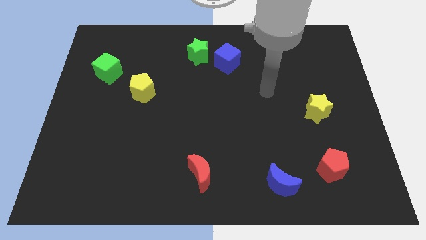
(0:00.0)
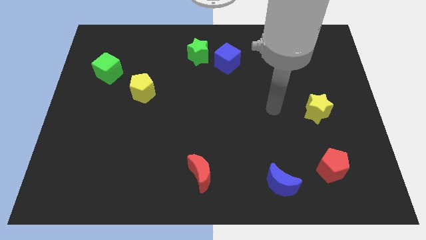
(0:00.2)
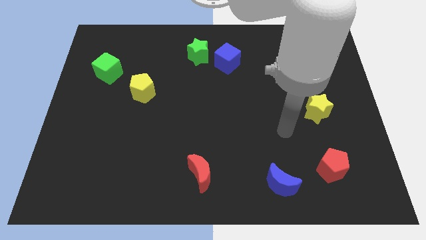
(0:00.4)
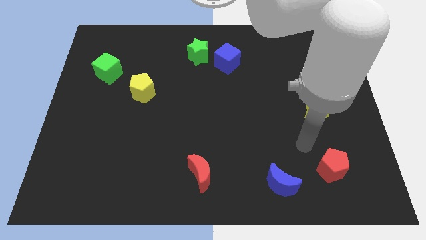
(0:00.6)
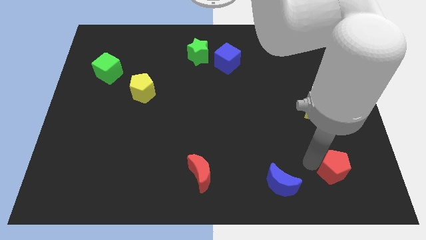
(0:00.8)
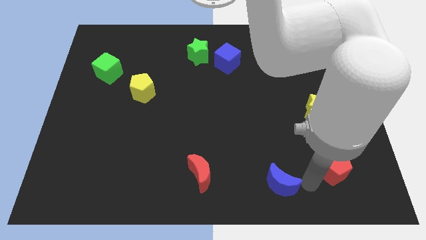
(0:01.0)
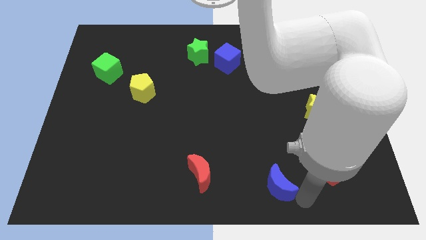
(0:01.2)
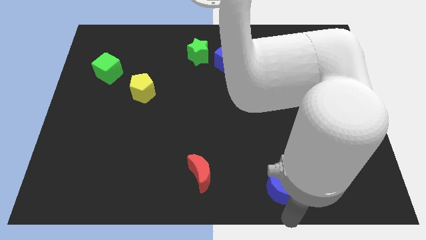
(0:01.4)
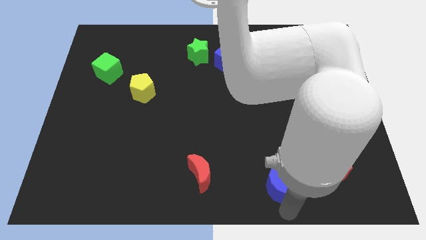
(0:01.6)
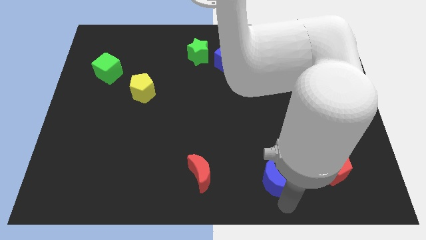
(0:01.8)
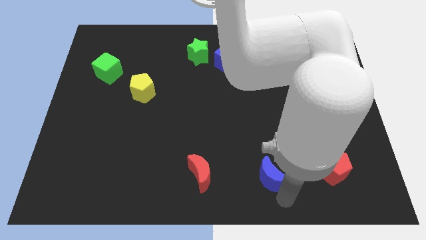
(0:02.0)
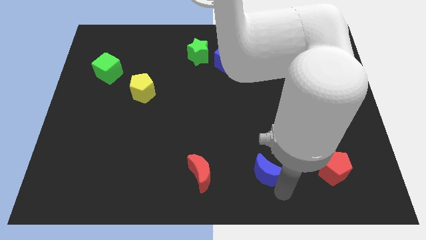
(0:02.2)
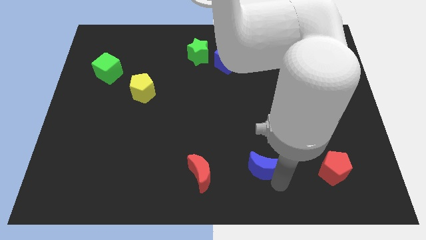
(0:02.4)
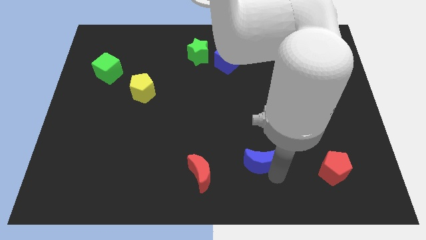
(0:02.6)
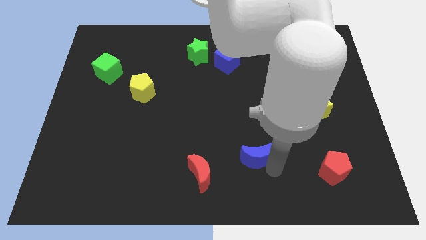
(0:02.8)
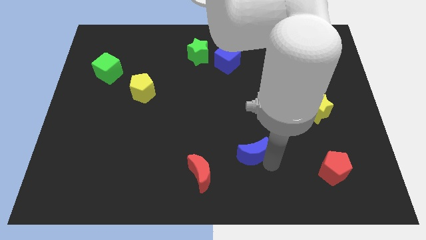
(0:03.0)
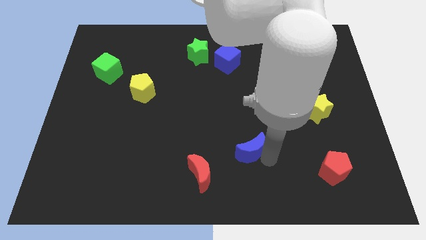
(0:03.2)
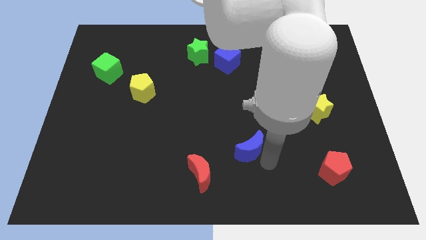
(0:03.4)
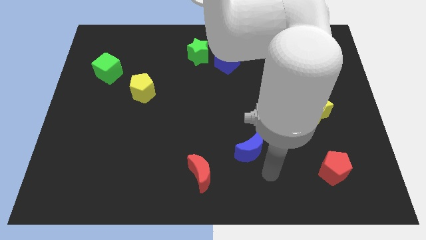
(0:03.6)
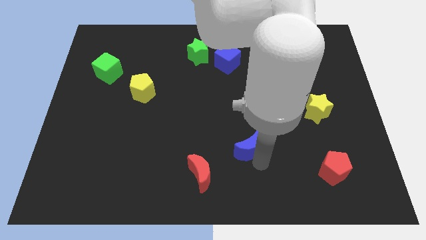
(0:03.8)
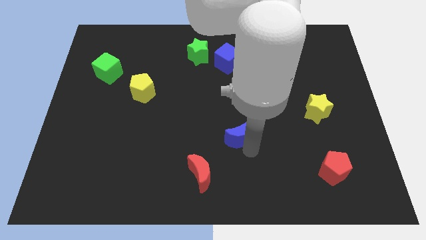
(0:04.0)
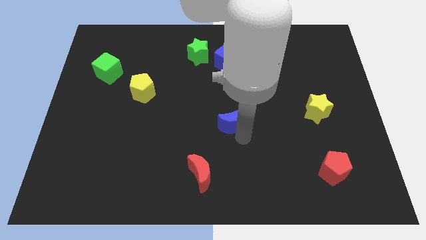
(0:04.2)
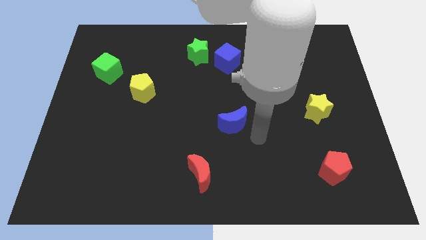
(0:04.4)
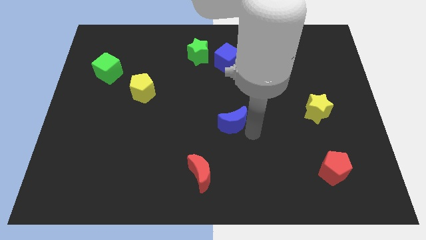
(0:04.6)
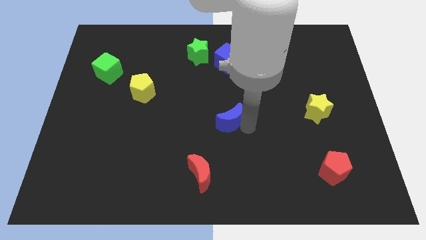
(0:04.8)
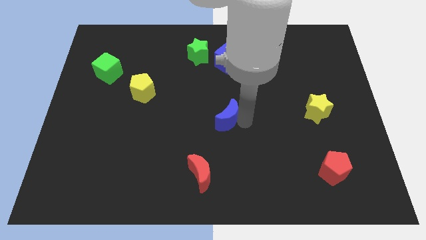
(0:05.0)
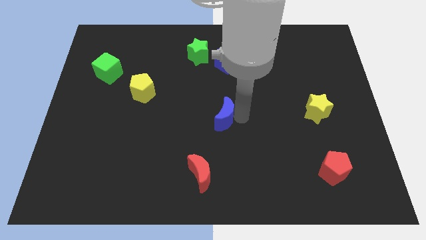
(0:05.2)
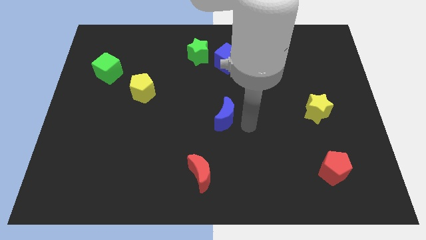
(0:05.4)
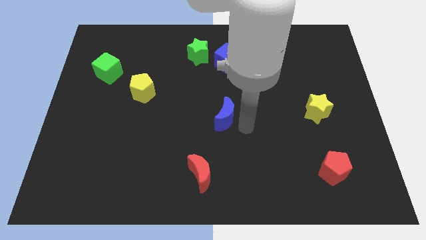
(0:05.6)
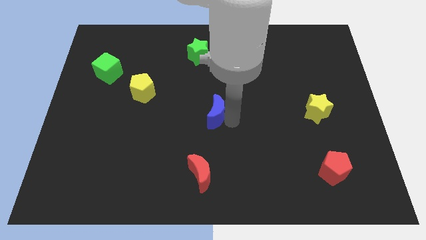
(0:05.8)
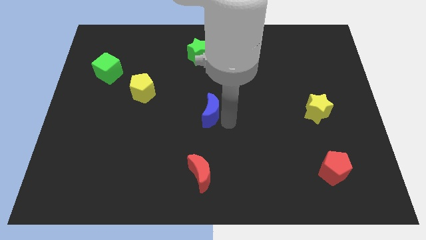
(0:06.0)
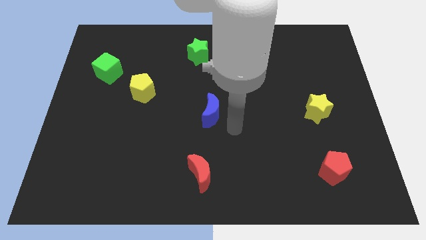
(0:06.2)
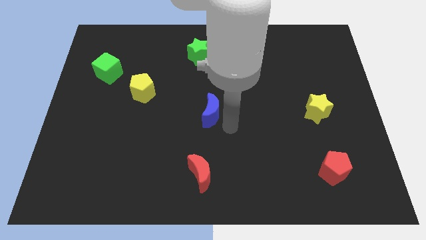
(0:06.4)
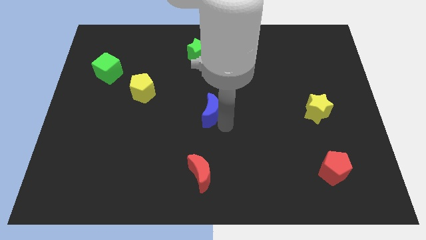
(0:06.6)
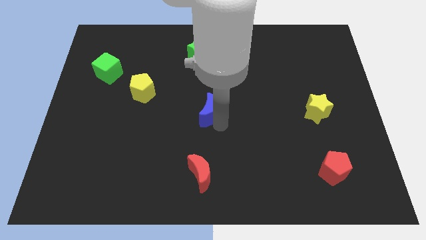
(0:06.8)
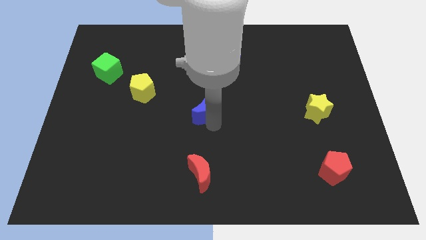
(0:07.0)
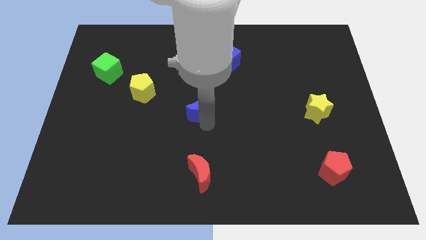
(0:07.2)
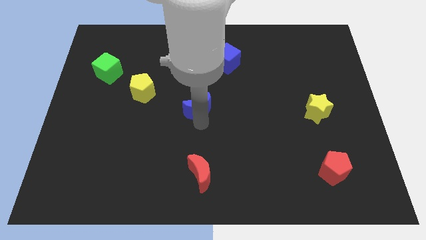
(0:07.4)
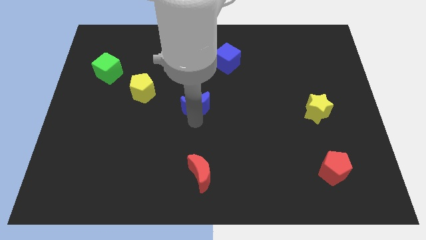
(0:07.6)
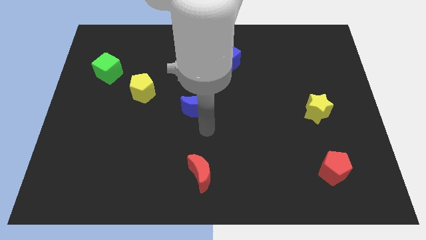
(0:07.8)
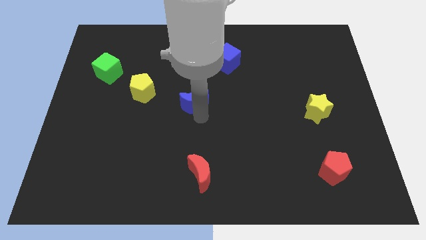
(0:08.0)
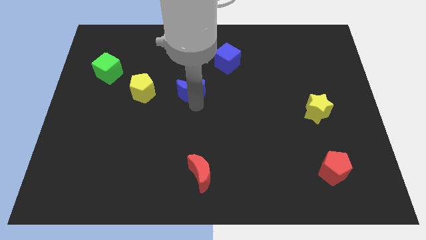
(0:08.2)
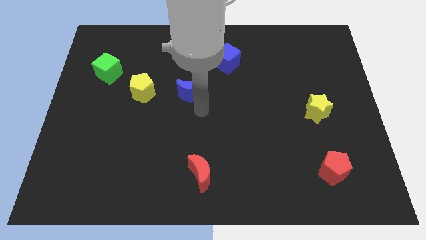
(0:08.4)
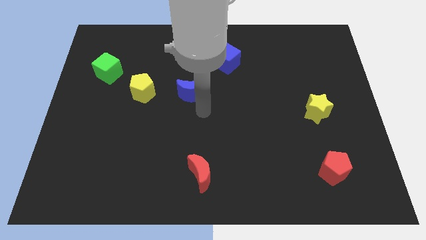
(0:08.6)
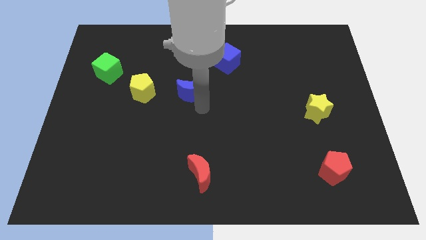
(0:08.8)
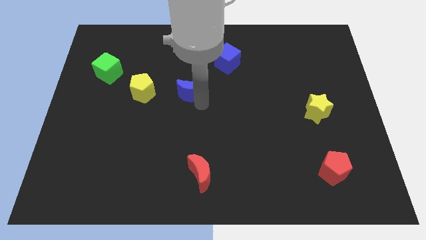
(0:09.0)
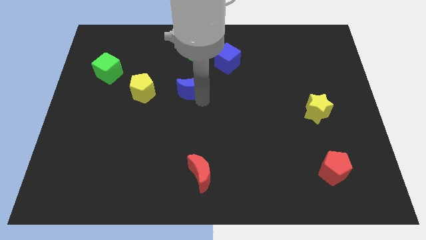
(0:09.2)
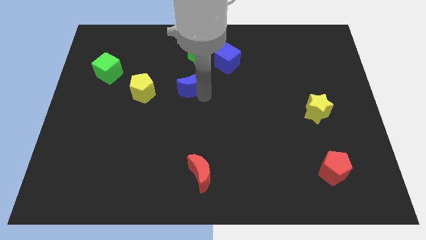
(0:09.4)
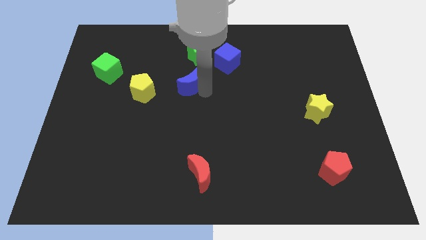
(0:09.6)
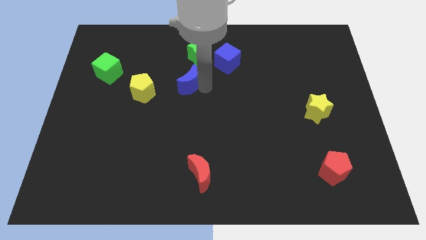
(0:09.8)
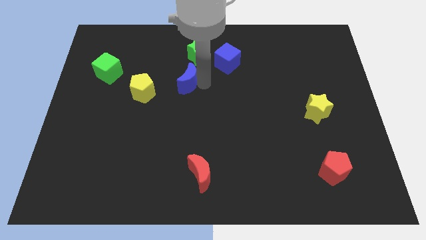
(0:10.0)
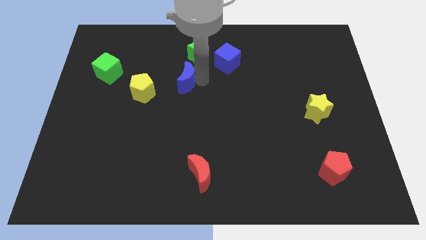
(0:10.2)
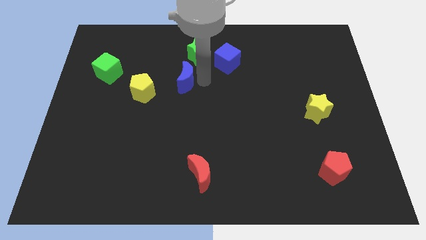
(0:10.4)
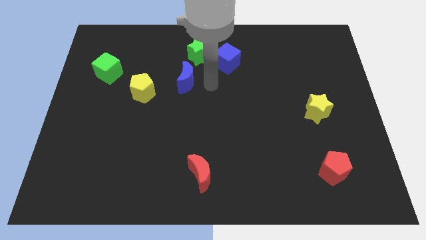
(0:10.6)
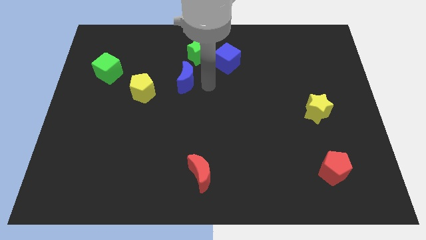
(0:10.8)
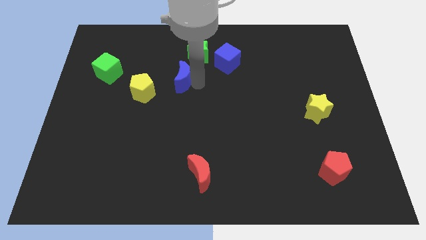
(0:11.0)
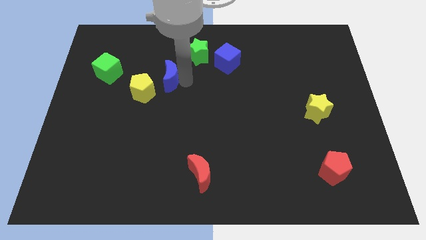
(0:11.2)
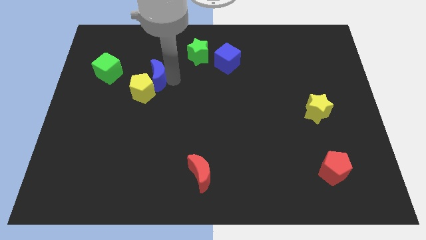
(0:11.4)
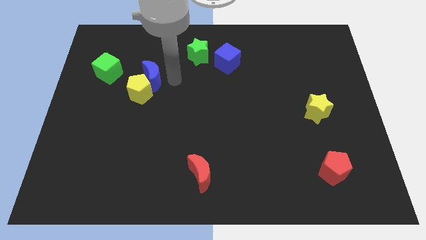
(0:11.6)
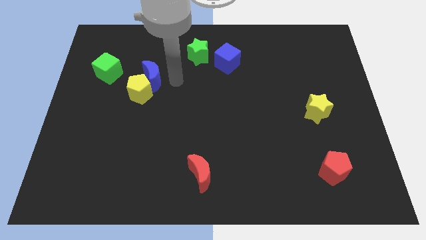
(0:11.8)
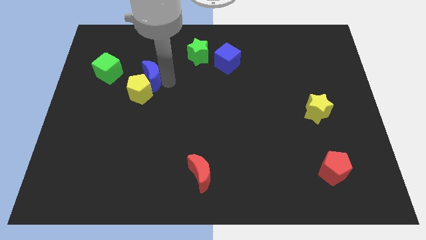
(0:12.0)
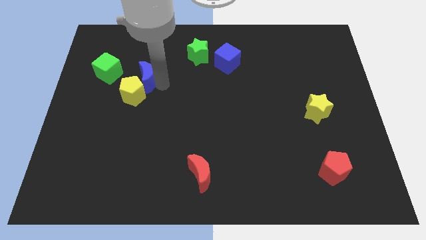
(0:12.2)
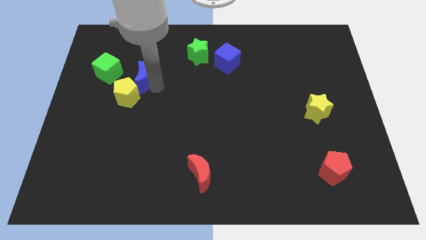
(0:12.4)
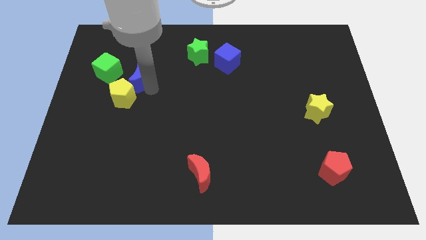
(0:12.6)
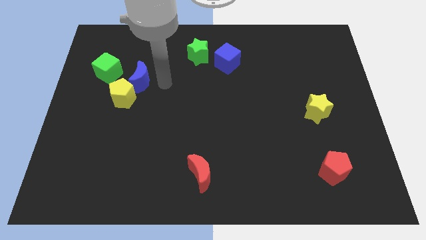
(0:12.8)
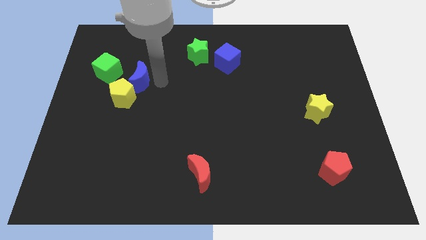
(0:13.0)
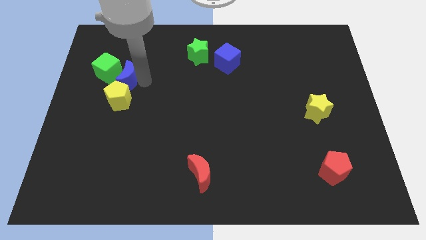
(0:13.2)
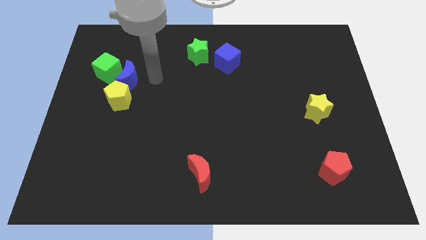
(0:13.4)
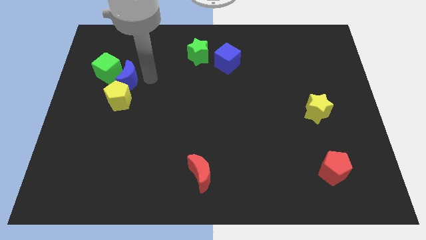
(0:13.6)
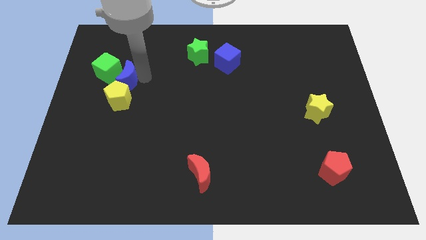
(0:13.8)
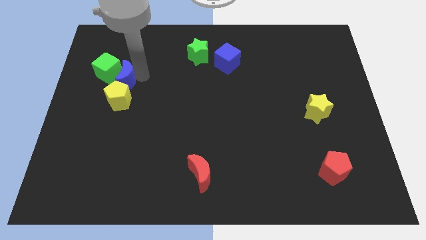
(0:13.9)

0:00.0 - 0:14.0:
move the blue moon to the top left of the yellow pentagon

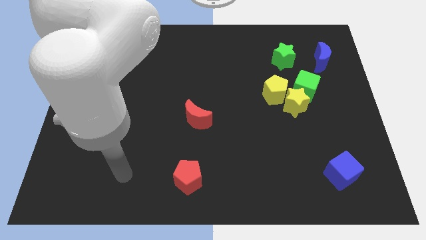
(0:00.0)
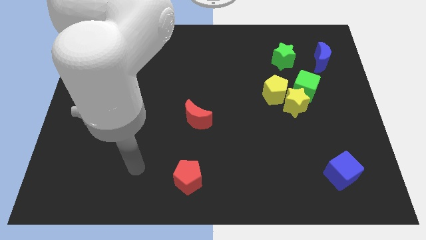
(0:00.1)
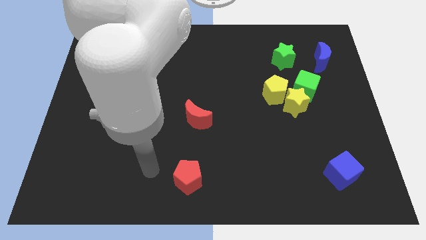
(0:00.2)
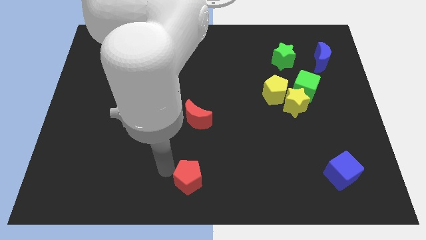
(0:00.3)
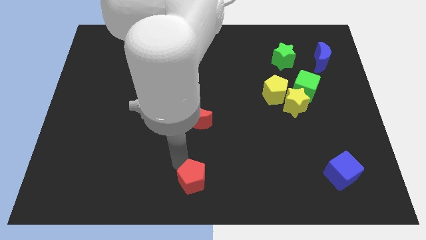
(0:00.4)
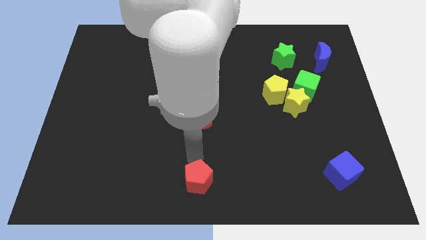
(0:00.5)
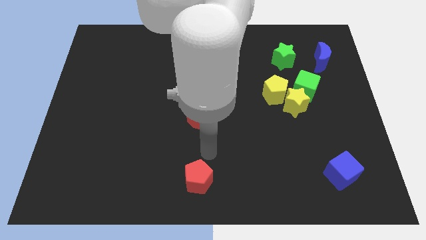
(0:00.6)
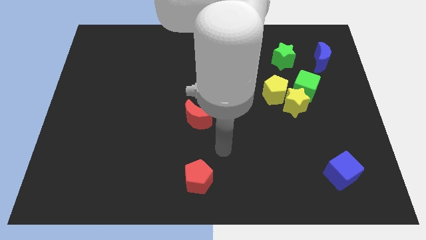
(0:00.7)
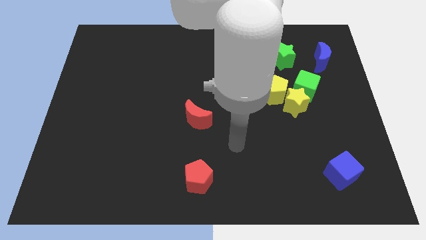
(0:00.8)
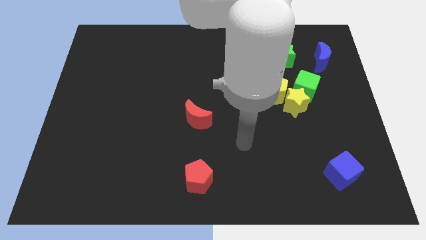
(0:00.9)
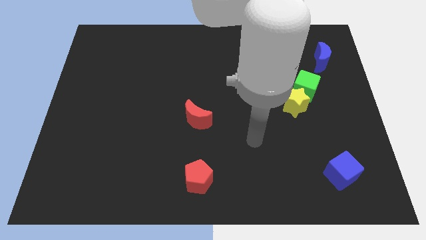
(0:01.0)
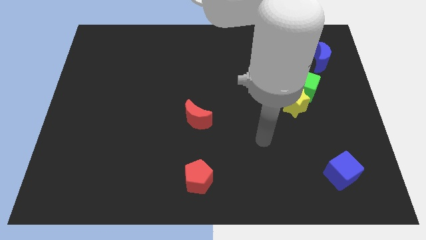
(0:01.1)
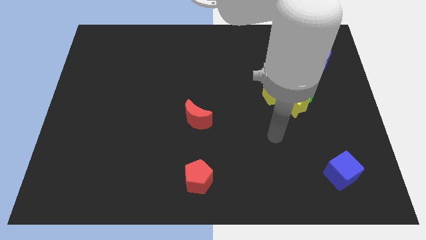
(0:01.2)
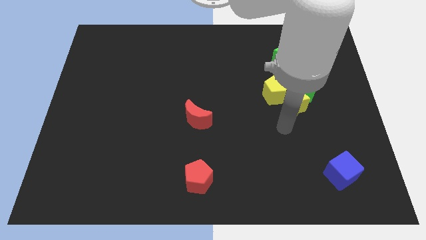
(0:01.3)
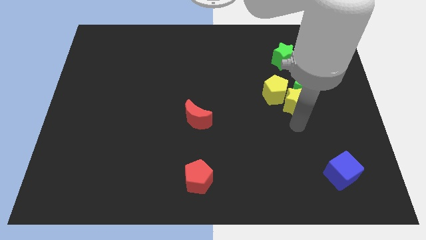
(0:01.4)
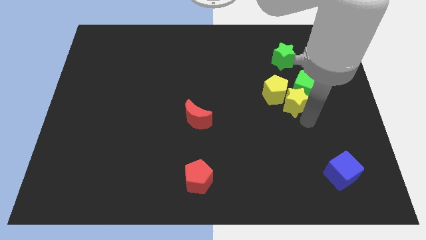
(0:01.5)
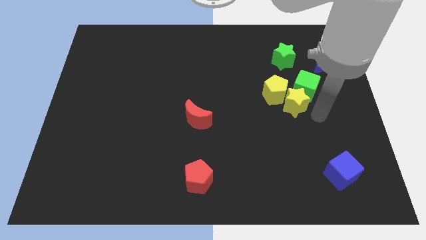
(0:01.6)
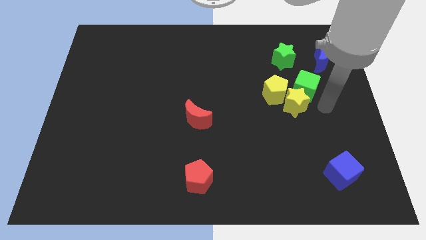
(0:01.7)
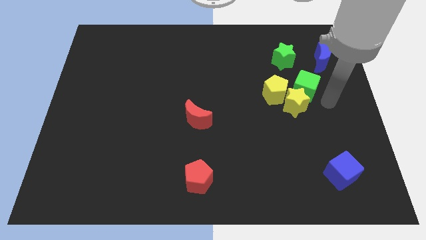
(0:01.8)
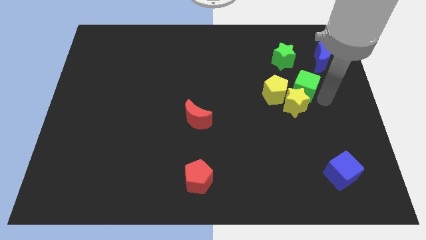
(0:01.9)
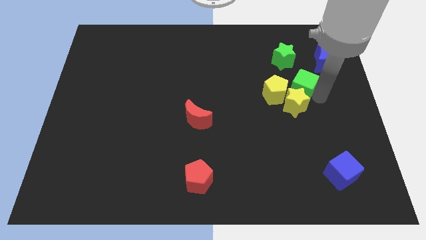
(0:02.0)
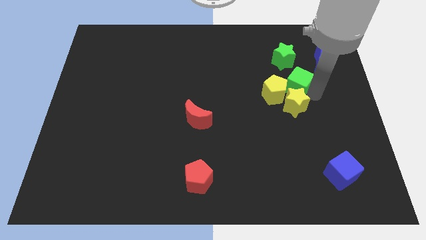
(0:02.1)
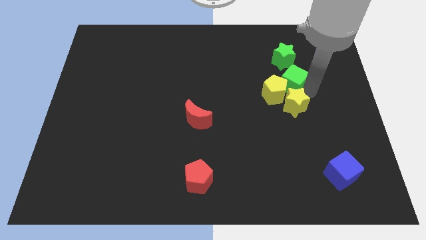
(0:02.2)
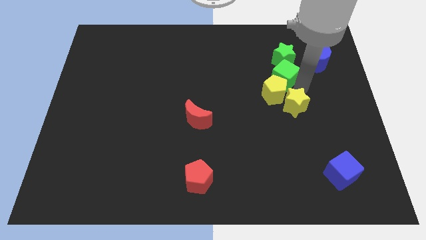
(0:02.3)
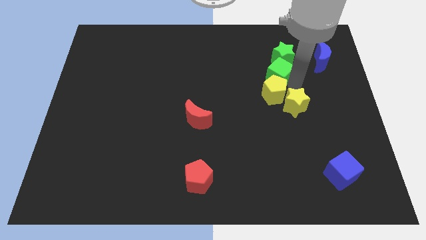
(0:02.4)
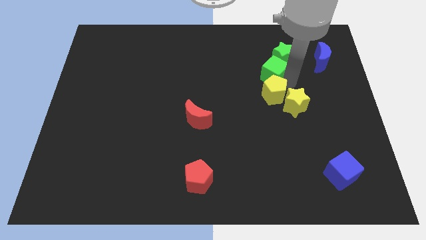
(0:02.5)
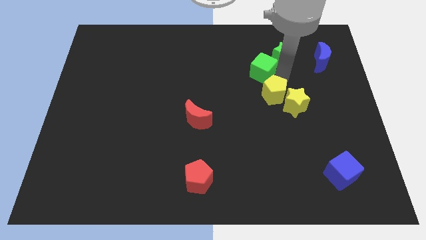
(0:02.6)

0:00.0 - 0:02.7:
put the green cube to the left of the green star
